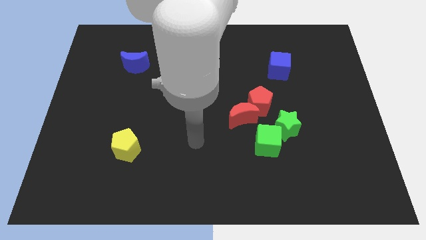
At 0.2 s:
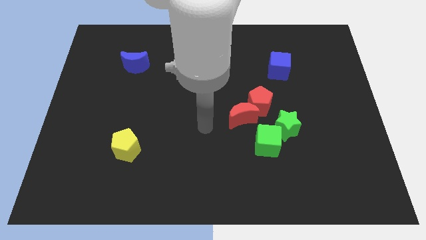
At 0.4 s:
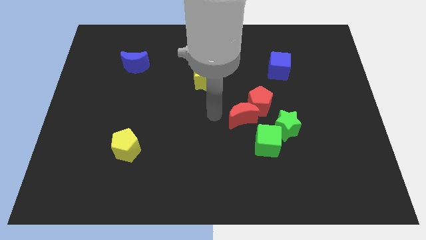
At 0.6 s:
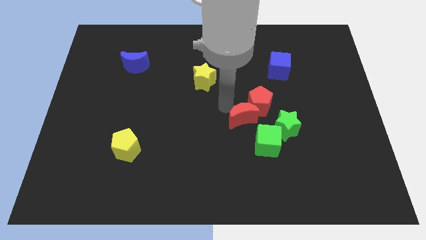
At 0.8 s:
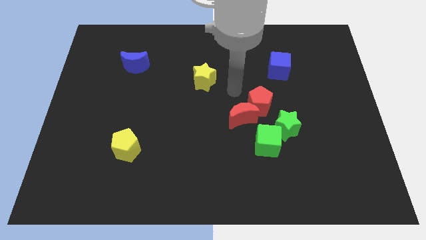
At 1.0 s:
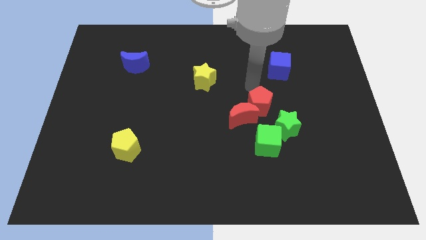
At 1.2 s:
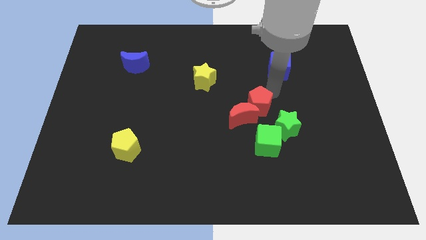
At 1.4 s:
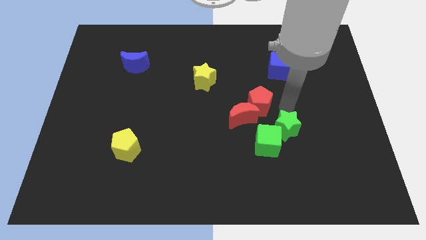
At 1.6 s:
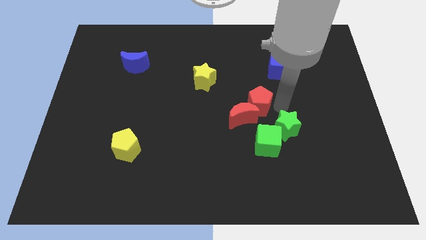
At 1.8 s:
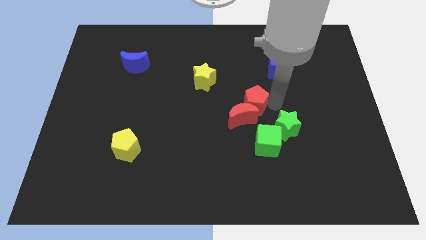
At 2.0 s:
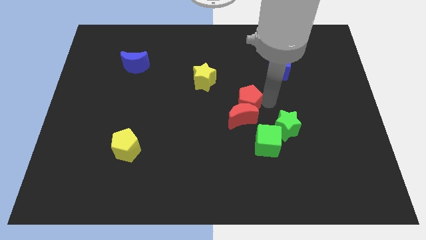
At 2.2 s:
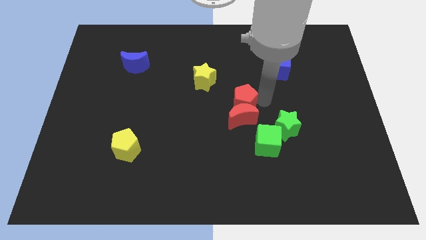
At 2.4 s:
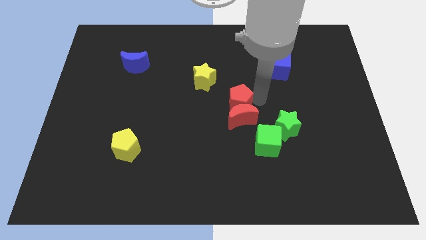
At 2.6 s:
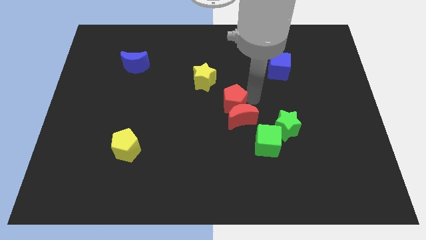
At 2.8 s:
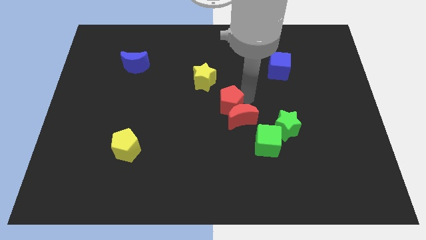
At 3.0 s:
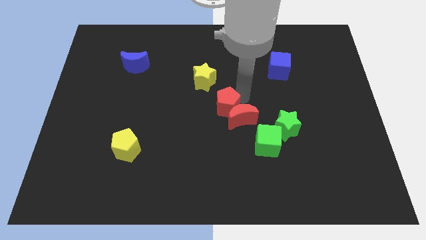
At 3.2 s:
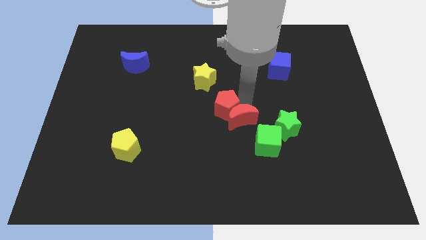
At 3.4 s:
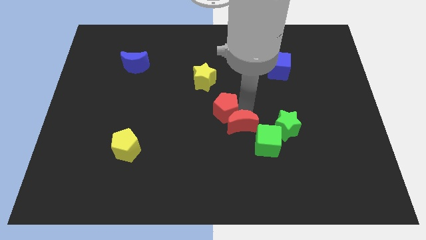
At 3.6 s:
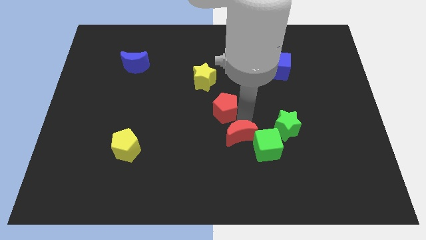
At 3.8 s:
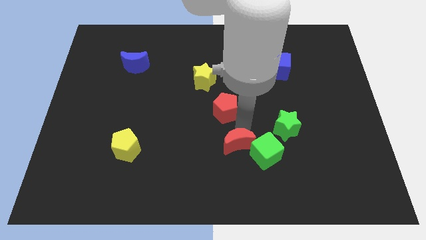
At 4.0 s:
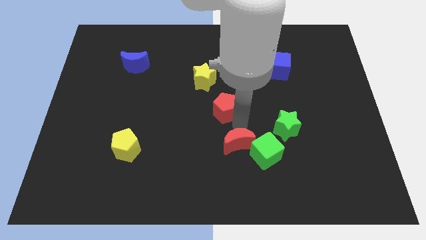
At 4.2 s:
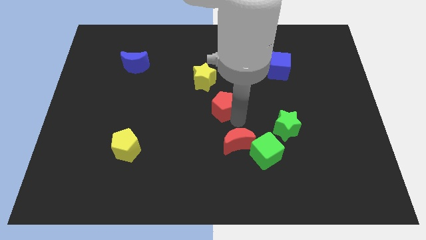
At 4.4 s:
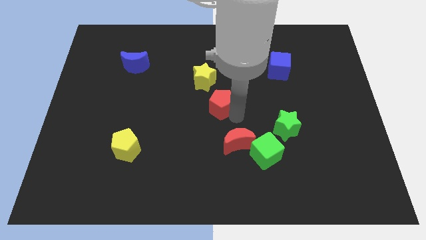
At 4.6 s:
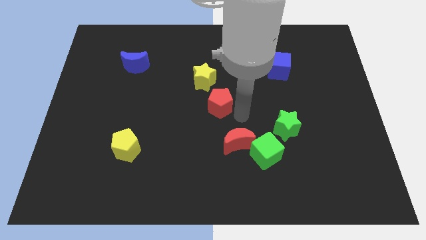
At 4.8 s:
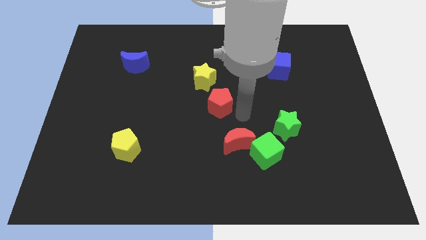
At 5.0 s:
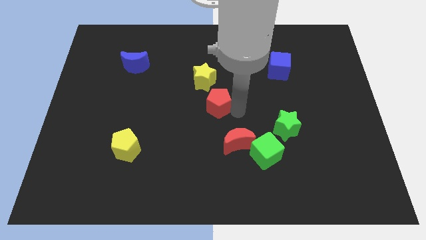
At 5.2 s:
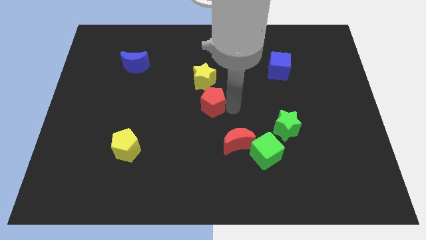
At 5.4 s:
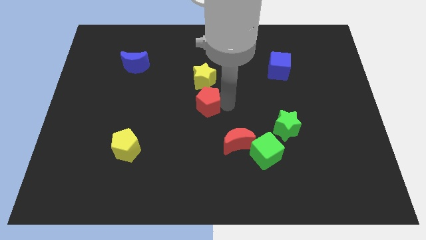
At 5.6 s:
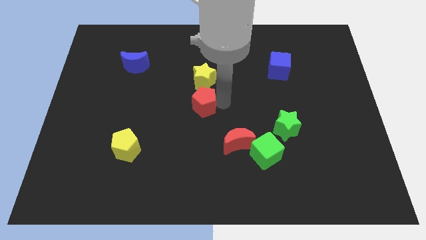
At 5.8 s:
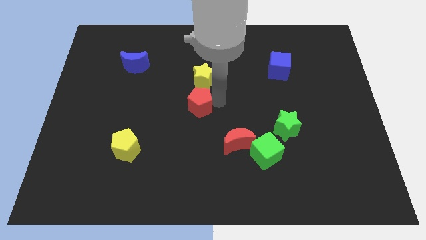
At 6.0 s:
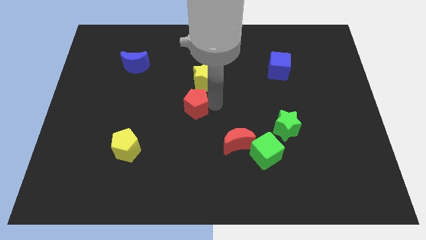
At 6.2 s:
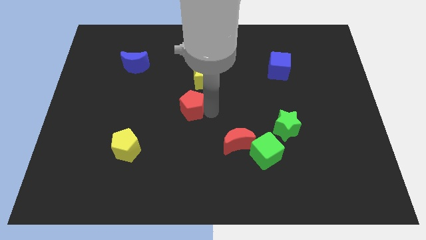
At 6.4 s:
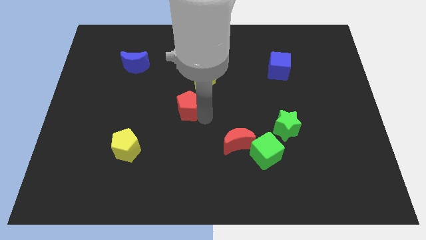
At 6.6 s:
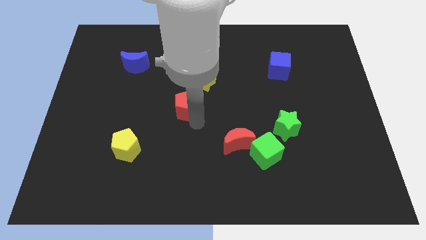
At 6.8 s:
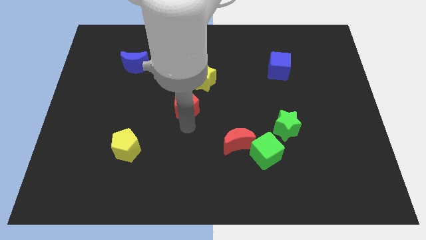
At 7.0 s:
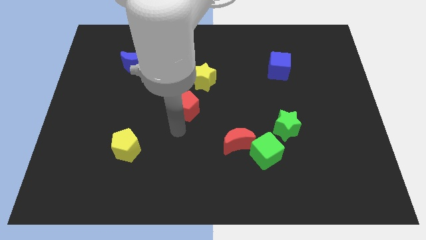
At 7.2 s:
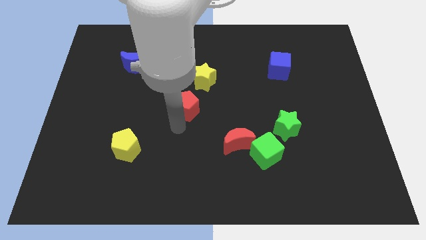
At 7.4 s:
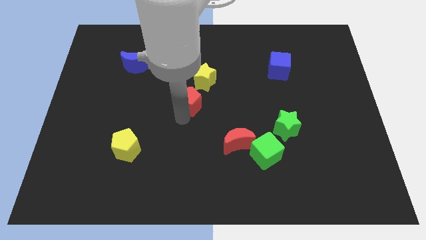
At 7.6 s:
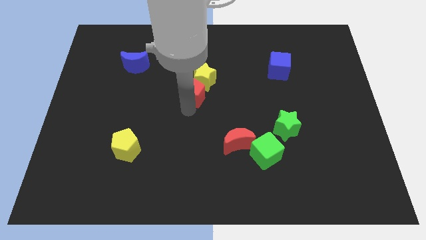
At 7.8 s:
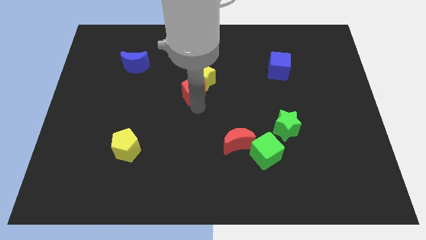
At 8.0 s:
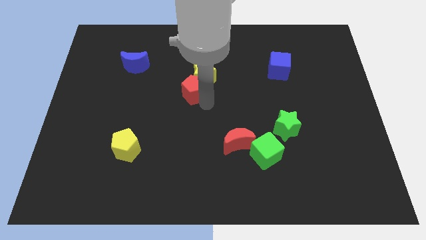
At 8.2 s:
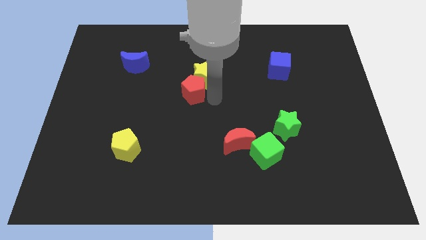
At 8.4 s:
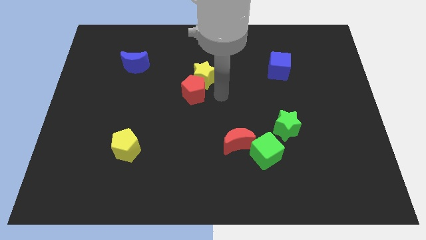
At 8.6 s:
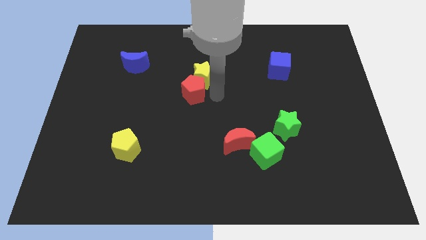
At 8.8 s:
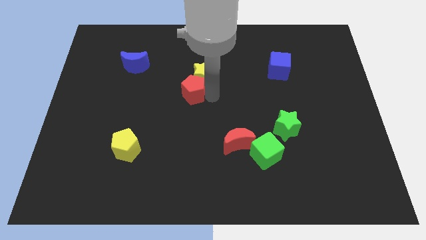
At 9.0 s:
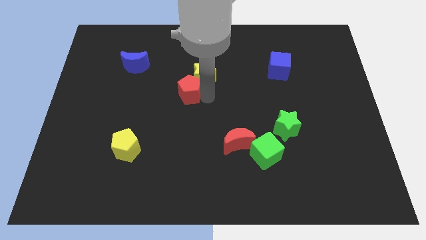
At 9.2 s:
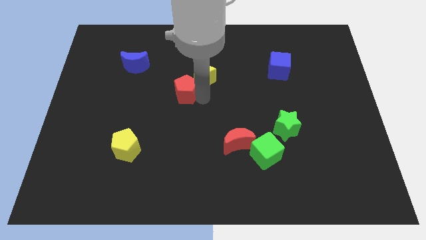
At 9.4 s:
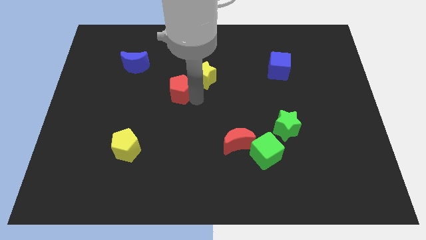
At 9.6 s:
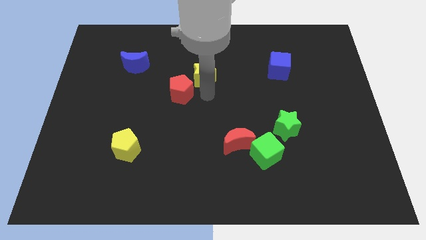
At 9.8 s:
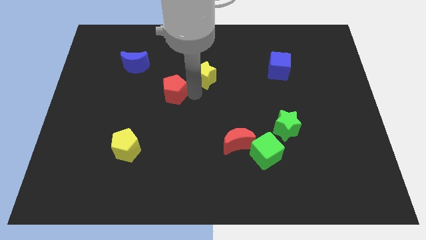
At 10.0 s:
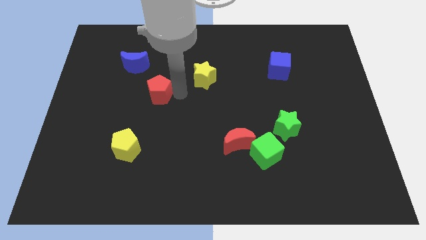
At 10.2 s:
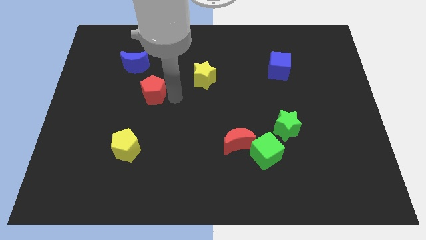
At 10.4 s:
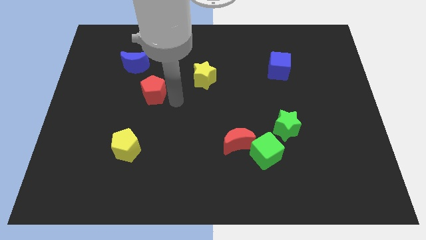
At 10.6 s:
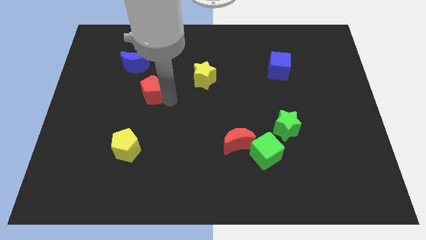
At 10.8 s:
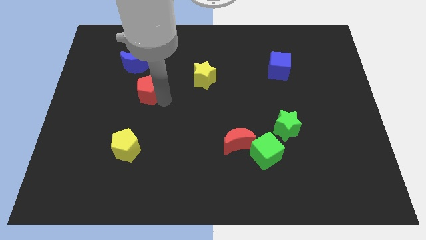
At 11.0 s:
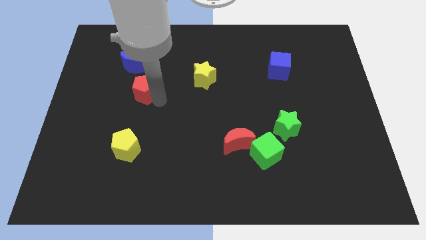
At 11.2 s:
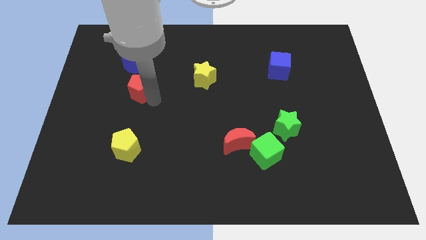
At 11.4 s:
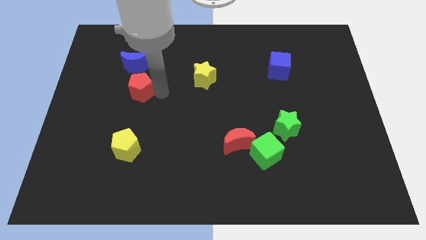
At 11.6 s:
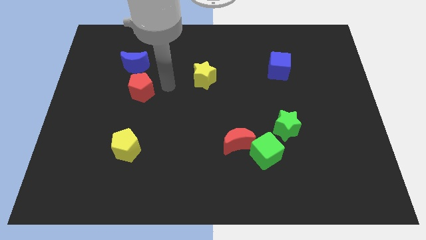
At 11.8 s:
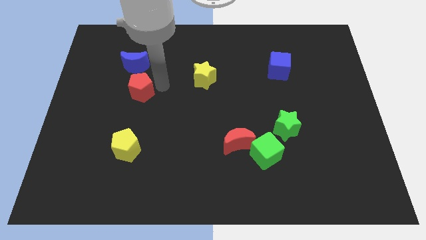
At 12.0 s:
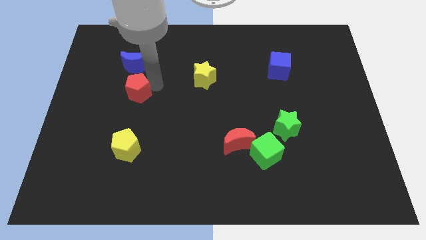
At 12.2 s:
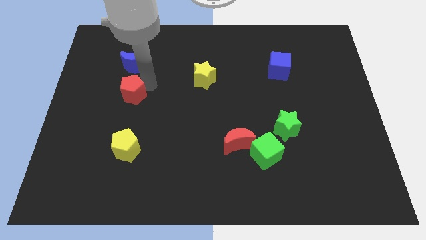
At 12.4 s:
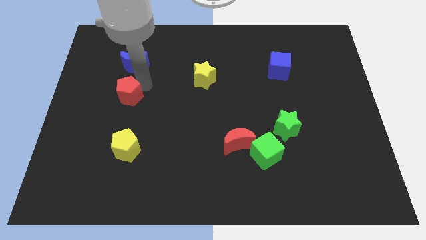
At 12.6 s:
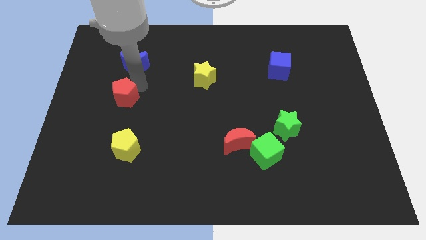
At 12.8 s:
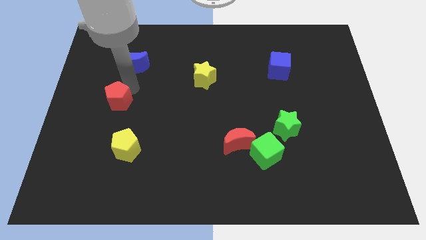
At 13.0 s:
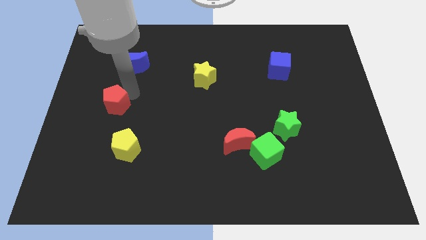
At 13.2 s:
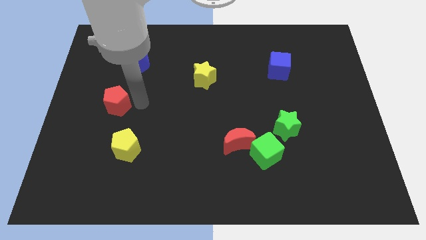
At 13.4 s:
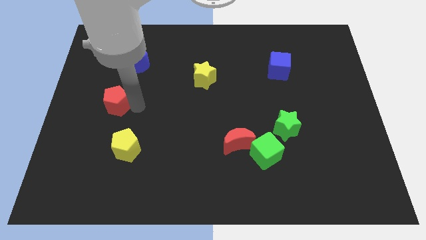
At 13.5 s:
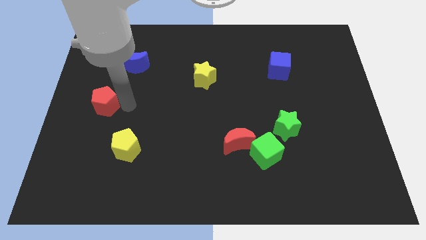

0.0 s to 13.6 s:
push the red pentagon to the center left
